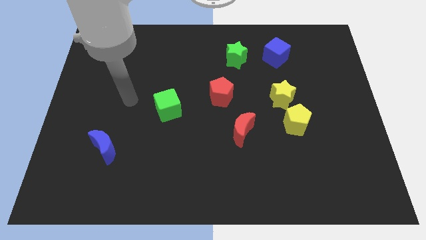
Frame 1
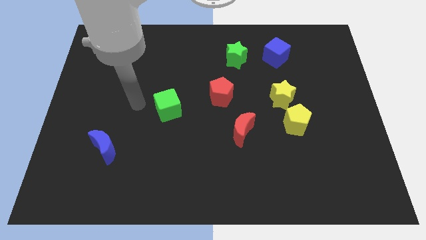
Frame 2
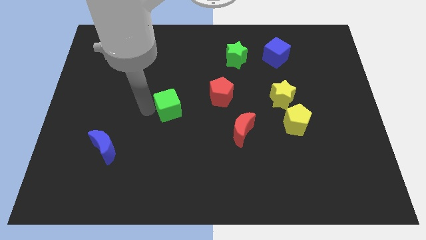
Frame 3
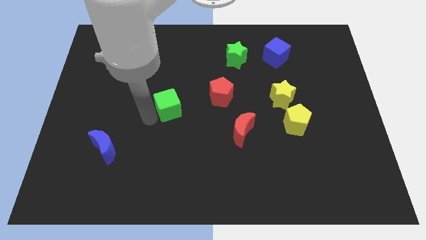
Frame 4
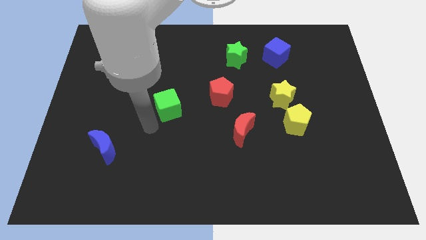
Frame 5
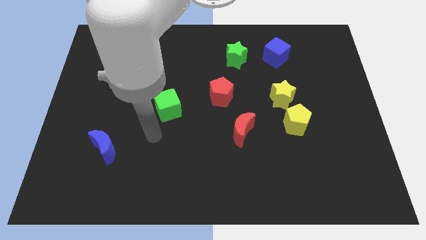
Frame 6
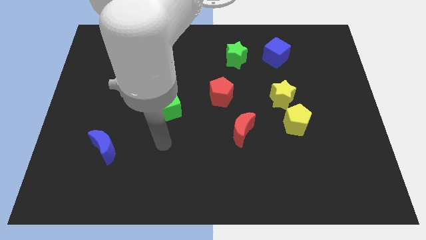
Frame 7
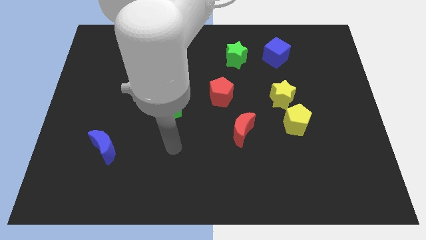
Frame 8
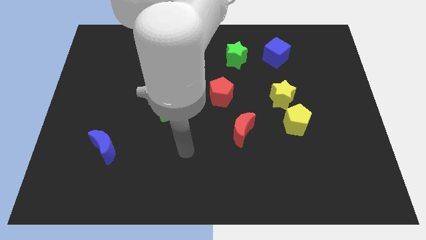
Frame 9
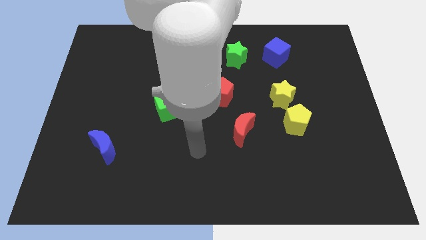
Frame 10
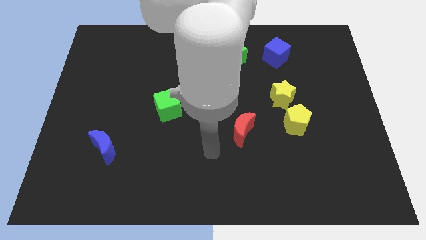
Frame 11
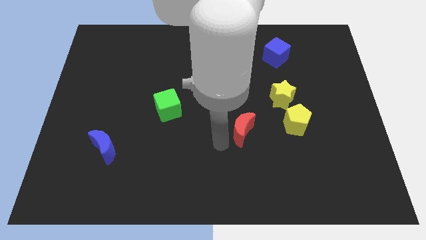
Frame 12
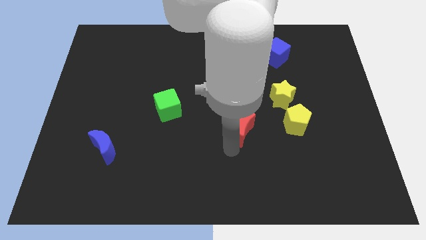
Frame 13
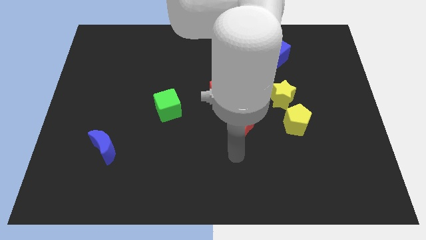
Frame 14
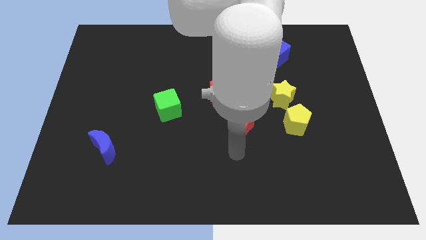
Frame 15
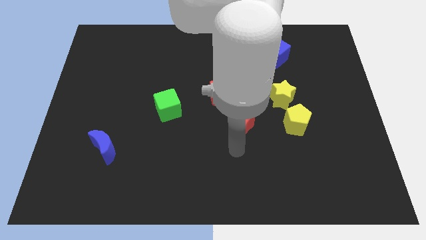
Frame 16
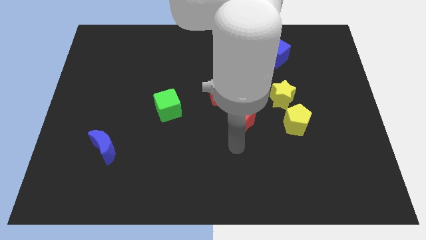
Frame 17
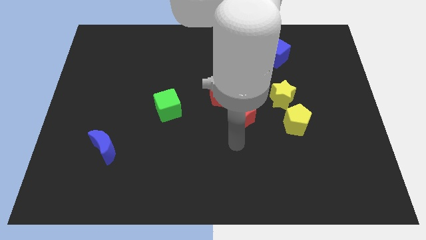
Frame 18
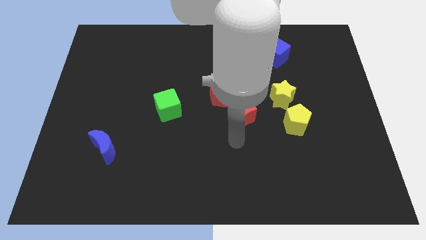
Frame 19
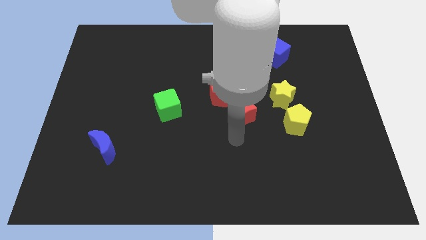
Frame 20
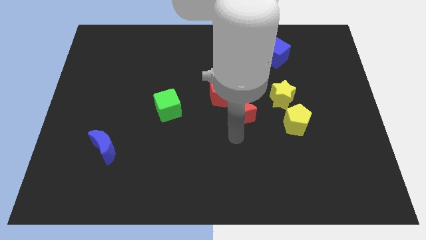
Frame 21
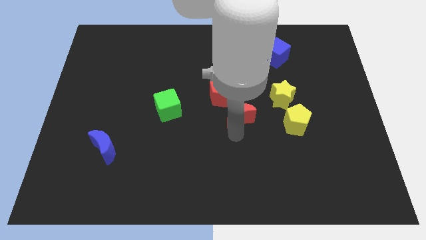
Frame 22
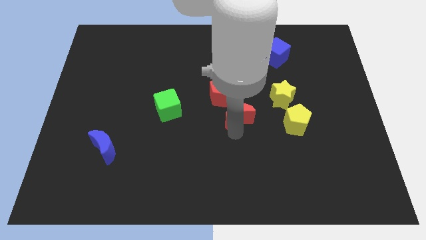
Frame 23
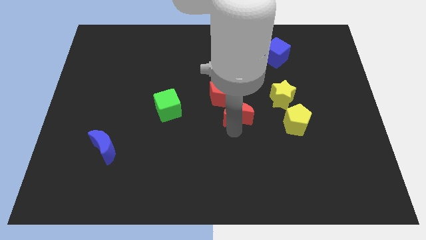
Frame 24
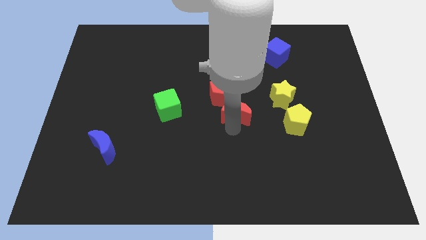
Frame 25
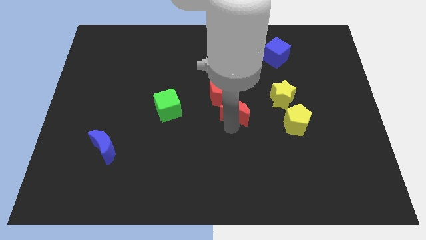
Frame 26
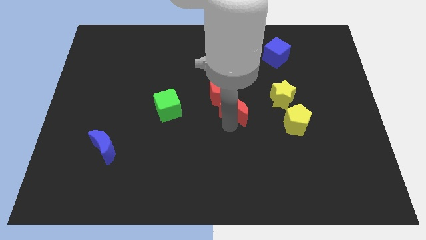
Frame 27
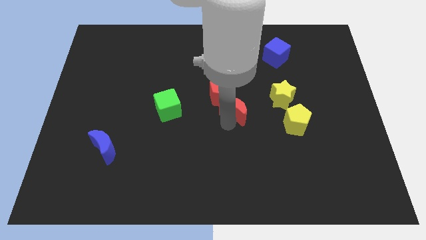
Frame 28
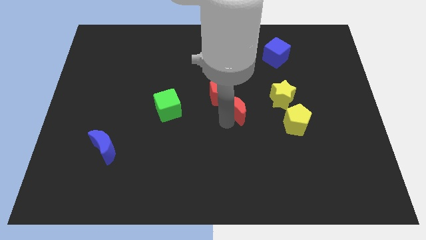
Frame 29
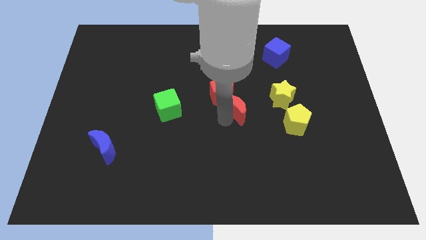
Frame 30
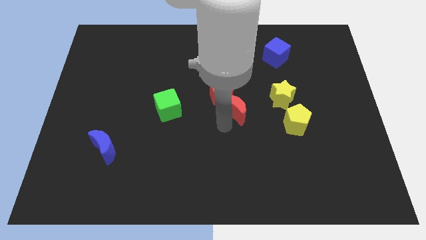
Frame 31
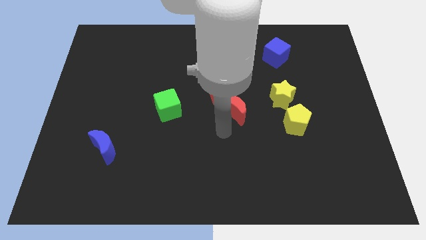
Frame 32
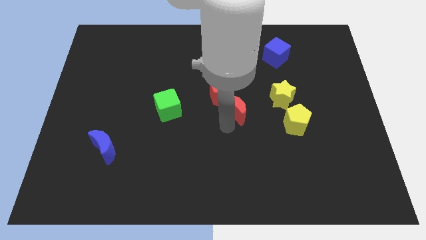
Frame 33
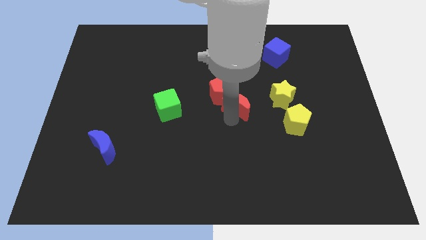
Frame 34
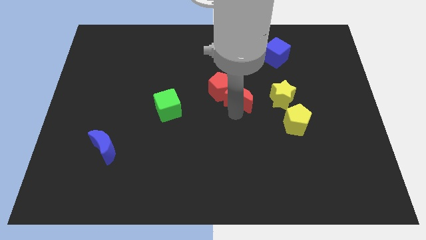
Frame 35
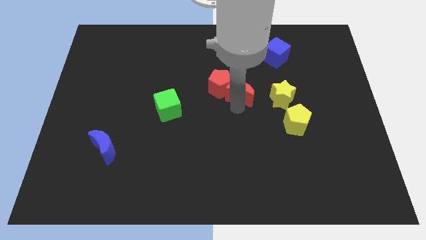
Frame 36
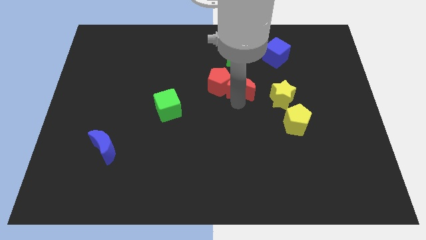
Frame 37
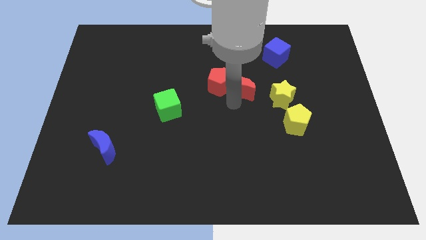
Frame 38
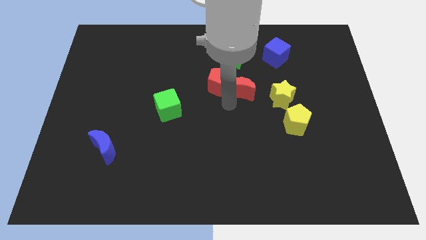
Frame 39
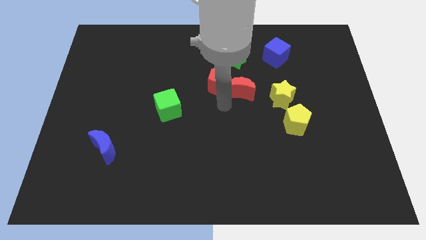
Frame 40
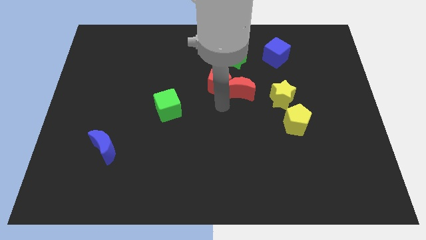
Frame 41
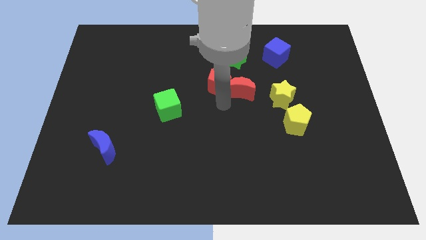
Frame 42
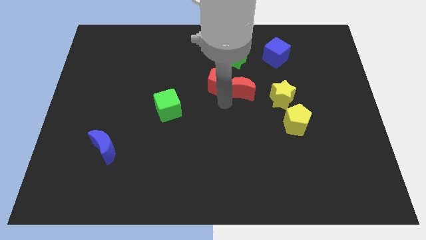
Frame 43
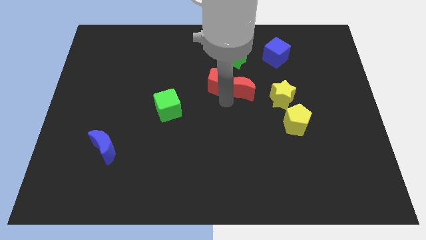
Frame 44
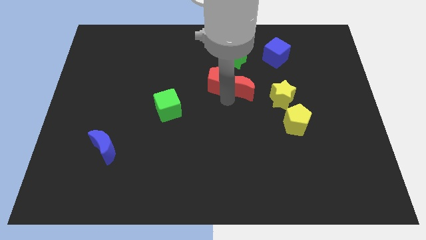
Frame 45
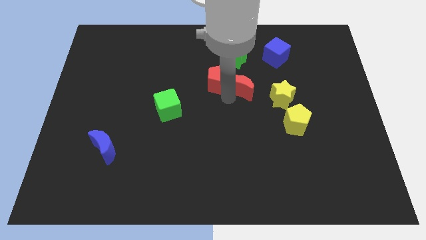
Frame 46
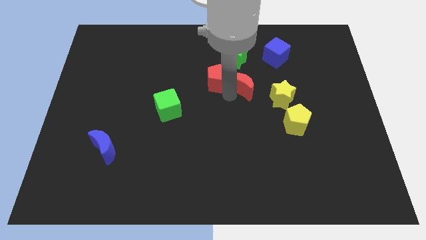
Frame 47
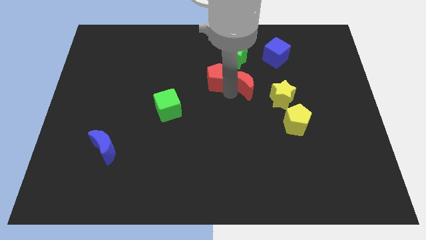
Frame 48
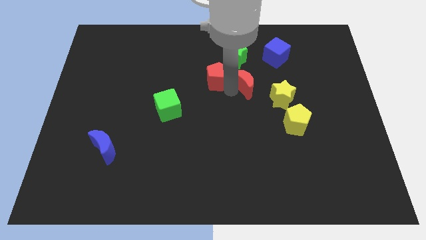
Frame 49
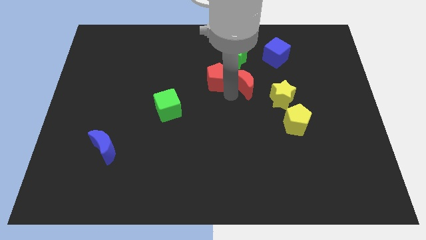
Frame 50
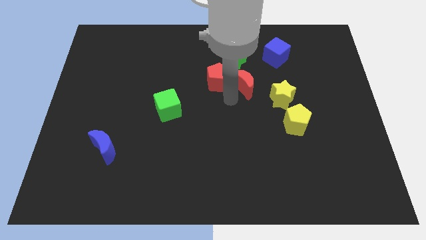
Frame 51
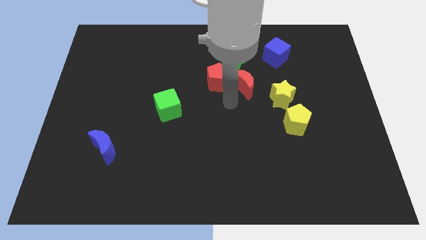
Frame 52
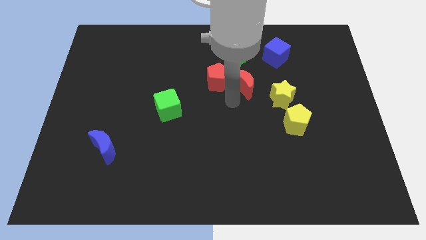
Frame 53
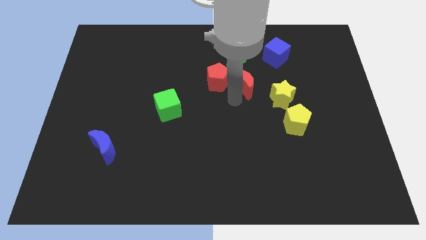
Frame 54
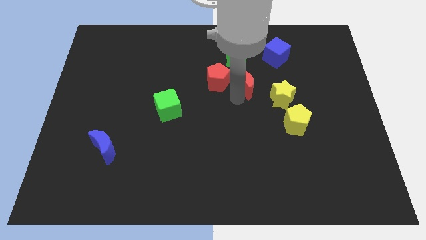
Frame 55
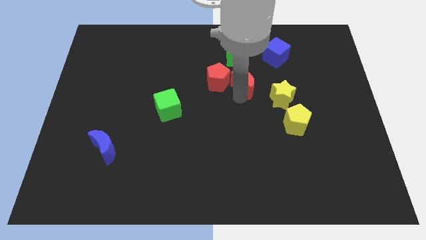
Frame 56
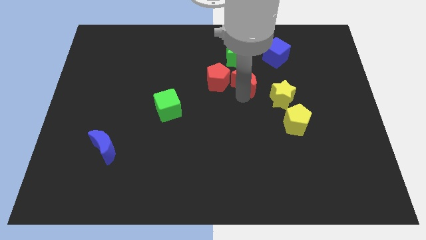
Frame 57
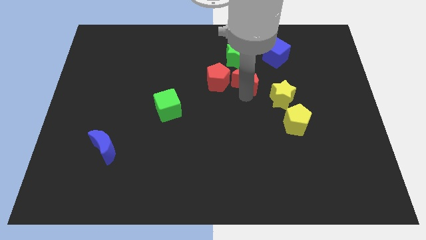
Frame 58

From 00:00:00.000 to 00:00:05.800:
push the red moon diagonally down and to the left of the blue cube

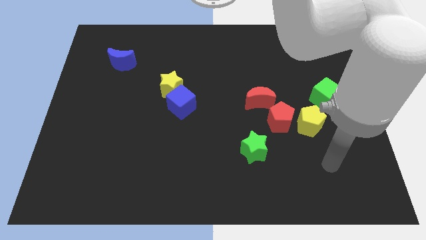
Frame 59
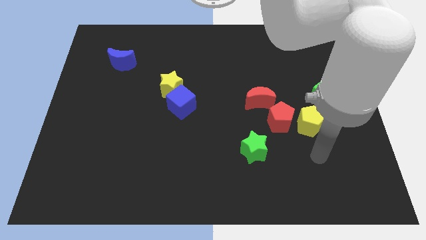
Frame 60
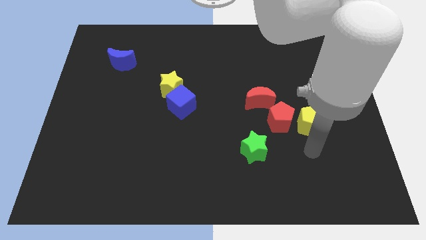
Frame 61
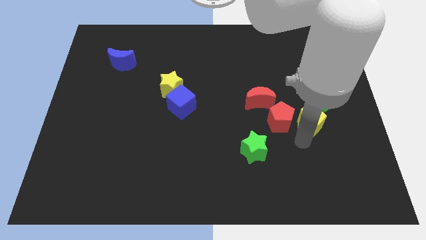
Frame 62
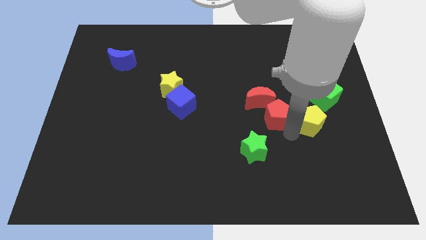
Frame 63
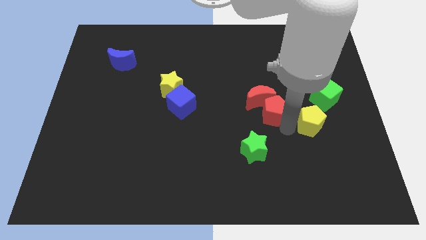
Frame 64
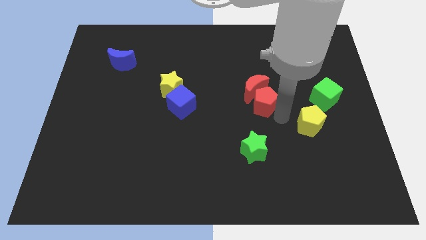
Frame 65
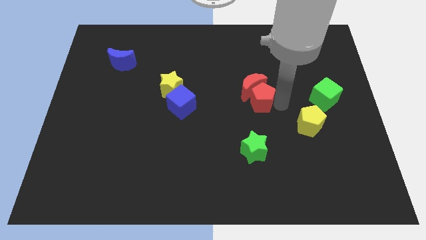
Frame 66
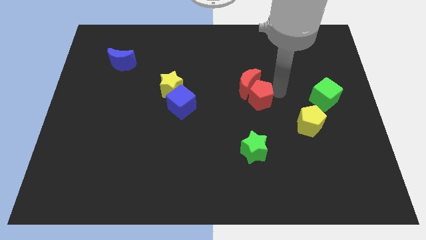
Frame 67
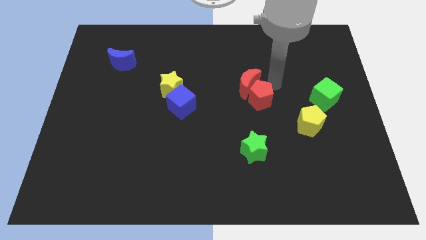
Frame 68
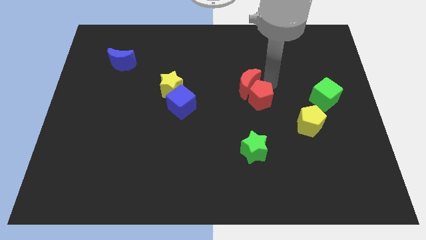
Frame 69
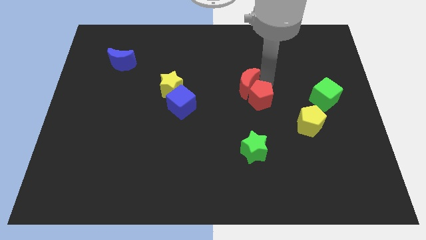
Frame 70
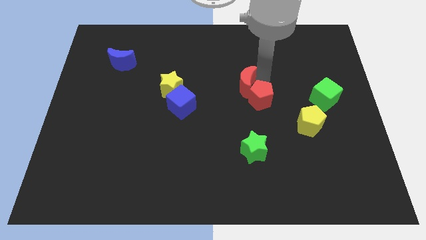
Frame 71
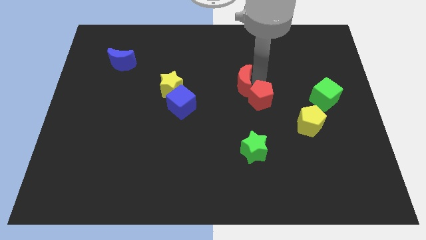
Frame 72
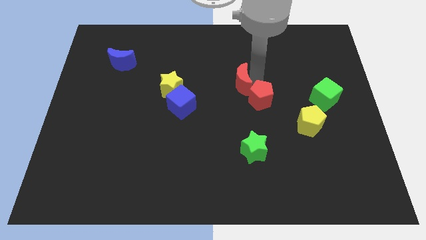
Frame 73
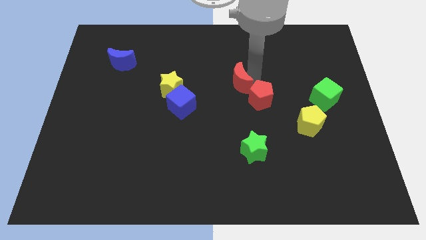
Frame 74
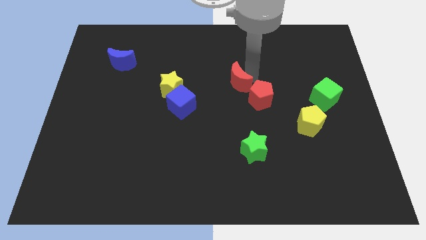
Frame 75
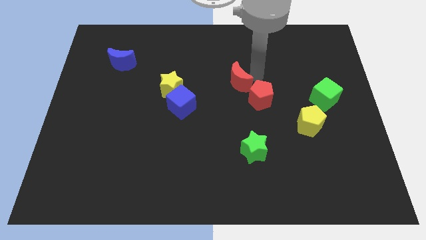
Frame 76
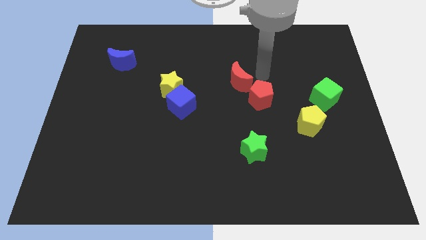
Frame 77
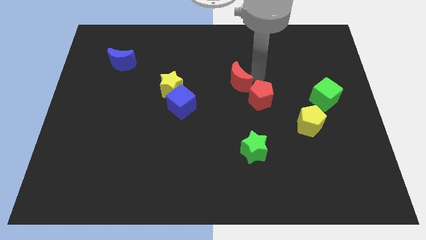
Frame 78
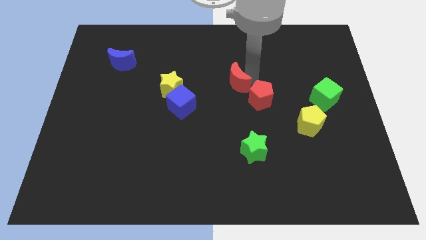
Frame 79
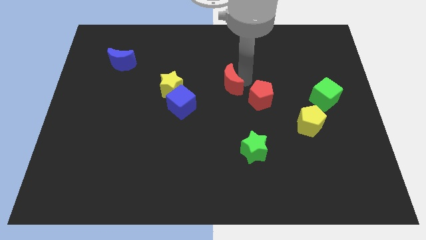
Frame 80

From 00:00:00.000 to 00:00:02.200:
put the red moon to the right of the yellow star
